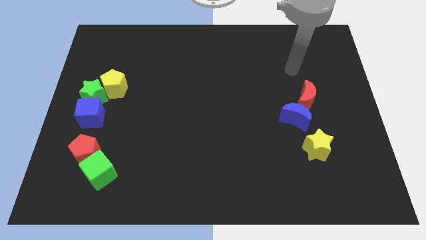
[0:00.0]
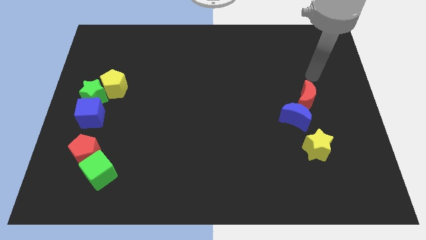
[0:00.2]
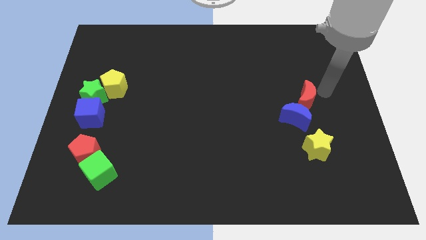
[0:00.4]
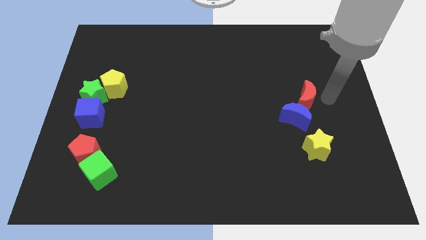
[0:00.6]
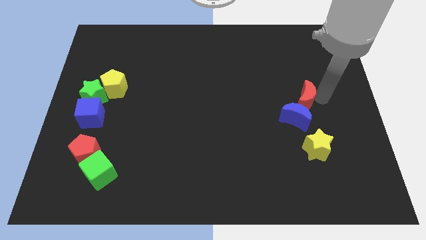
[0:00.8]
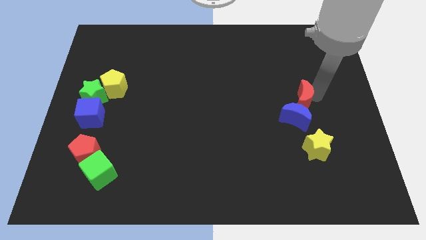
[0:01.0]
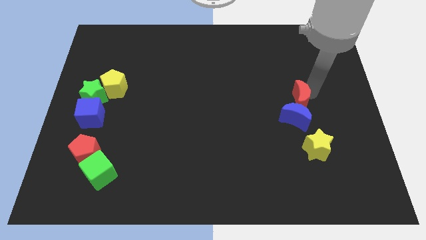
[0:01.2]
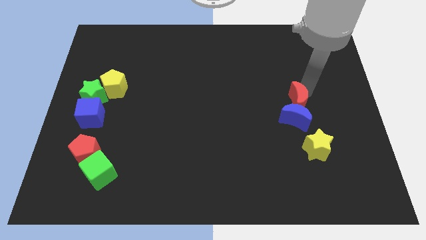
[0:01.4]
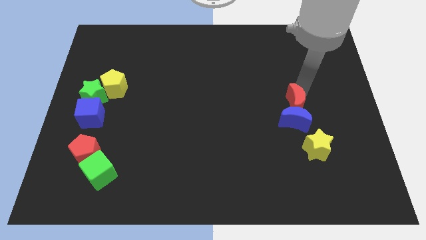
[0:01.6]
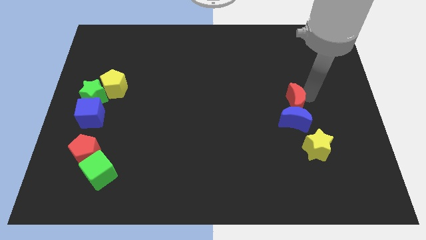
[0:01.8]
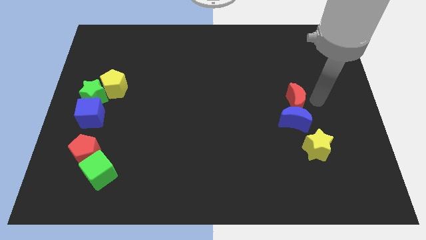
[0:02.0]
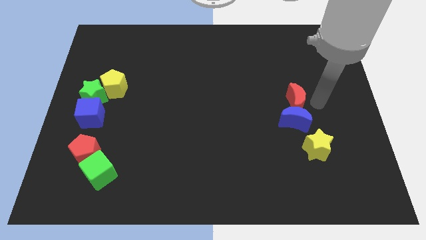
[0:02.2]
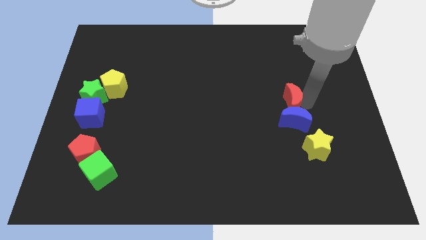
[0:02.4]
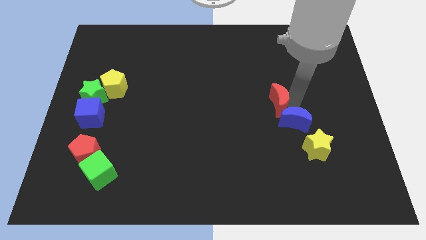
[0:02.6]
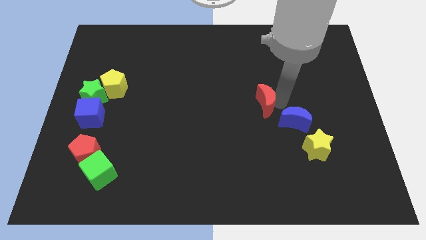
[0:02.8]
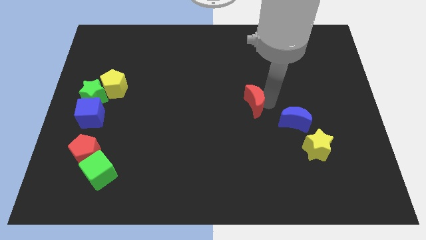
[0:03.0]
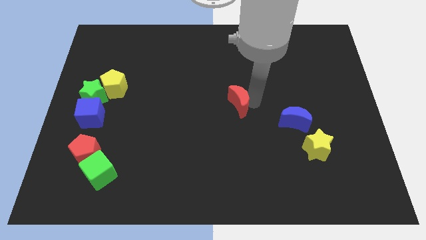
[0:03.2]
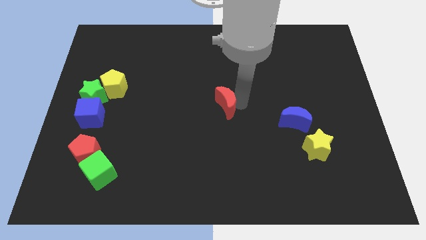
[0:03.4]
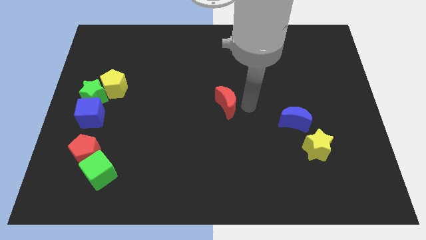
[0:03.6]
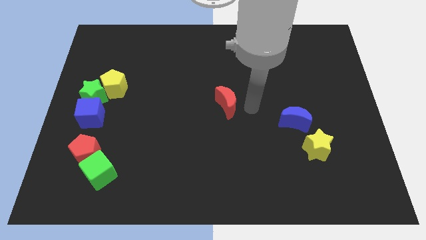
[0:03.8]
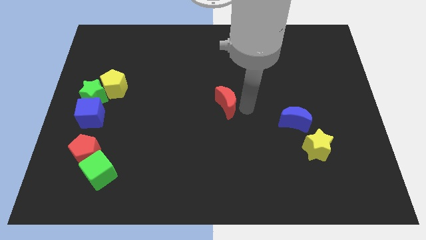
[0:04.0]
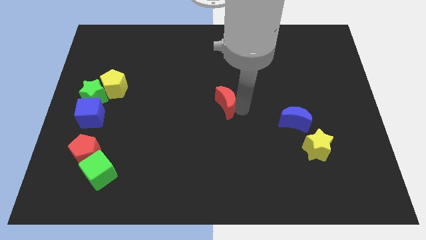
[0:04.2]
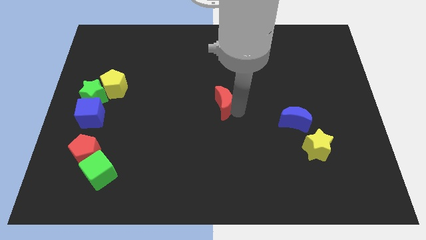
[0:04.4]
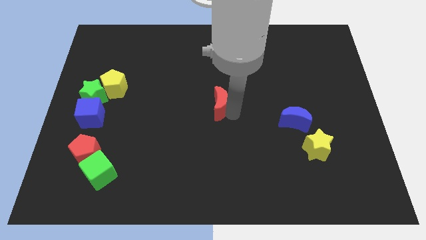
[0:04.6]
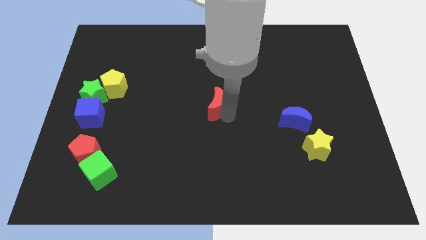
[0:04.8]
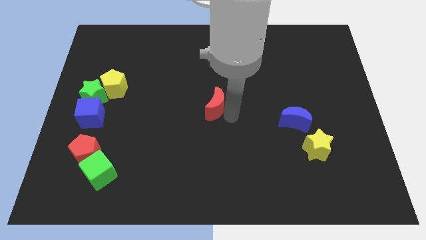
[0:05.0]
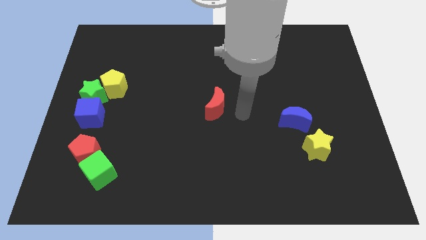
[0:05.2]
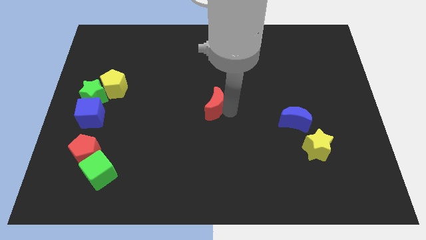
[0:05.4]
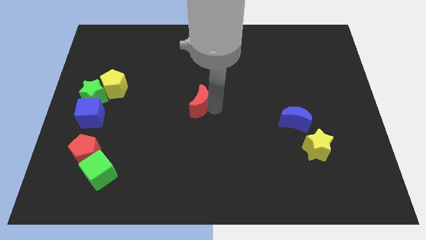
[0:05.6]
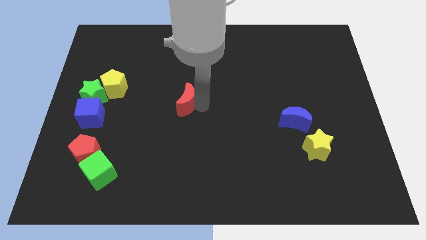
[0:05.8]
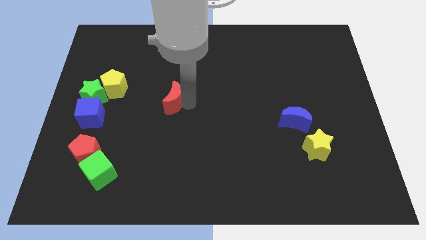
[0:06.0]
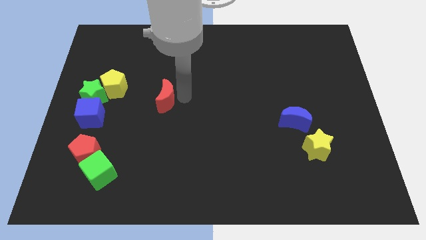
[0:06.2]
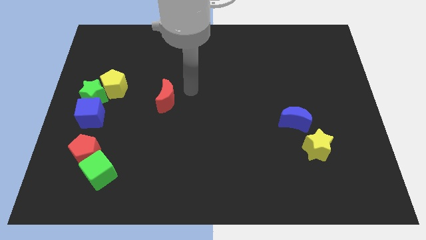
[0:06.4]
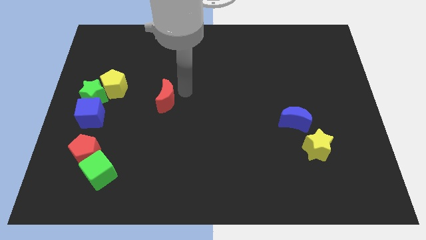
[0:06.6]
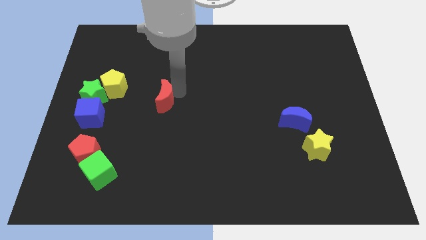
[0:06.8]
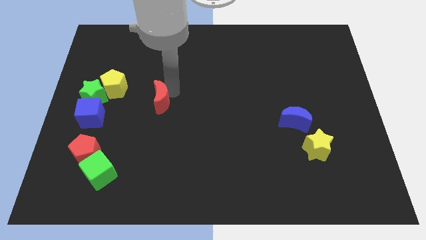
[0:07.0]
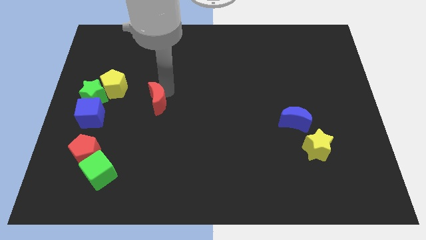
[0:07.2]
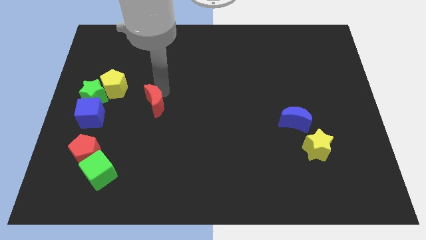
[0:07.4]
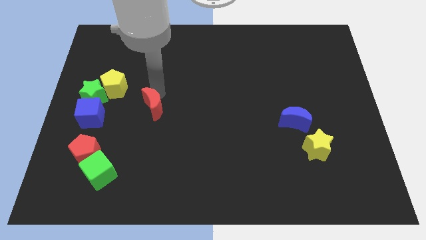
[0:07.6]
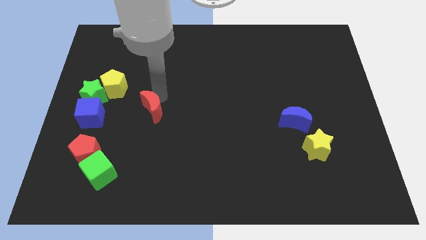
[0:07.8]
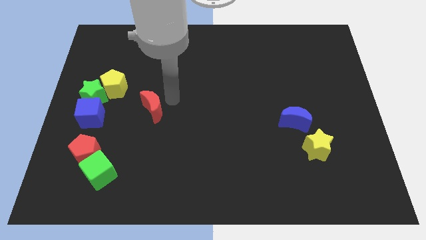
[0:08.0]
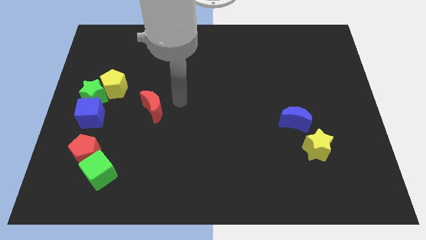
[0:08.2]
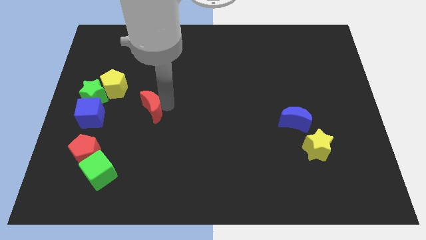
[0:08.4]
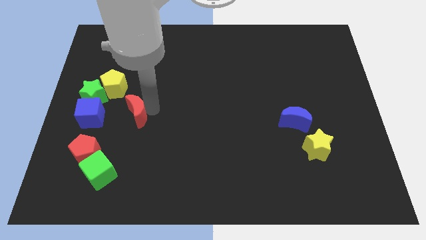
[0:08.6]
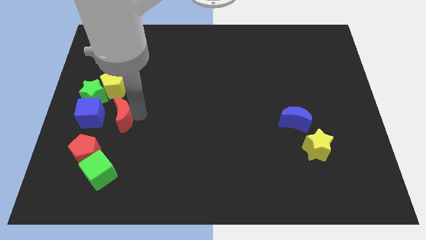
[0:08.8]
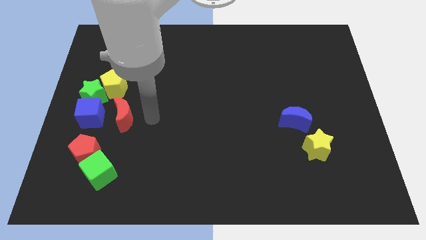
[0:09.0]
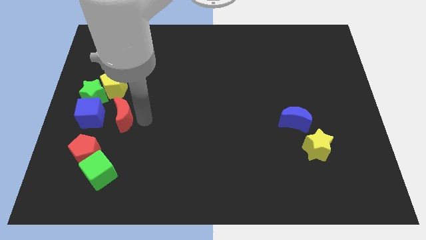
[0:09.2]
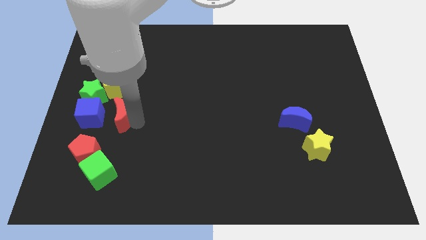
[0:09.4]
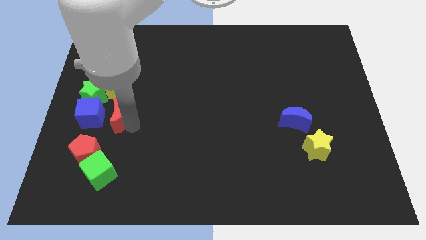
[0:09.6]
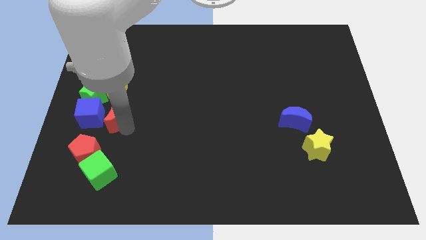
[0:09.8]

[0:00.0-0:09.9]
put the red moon close to the blue cube

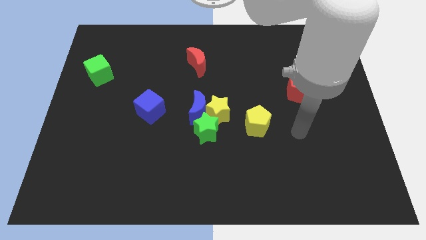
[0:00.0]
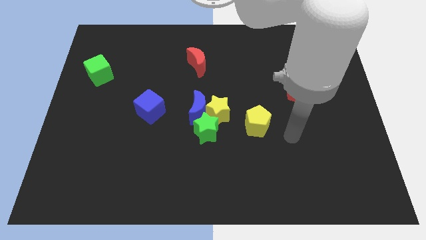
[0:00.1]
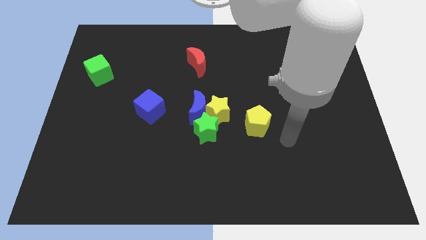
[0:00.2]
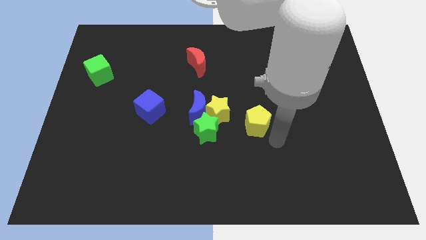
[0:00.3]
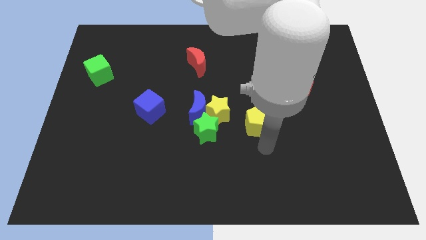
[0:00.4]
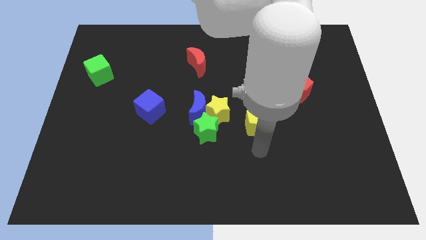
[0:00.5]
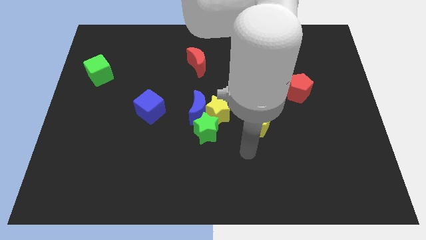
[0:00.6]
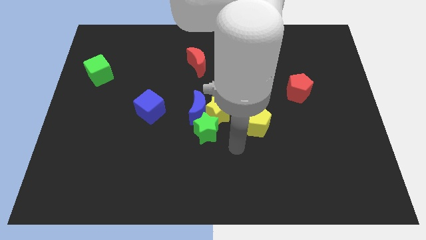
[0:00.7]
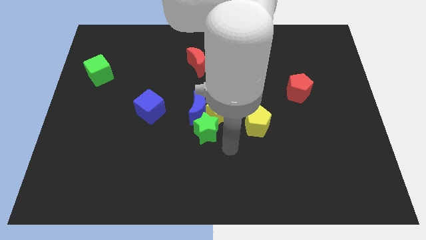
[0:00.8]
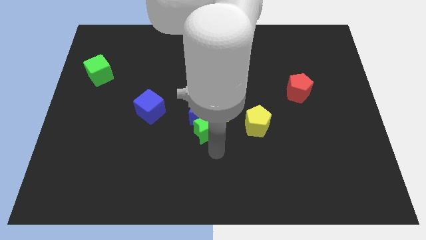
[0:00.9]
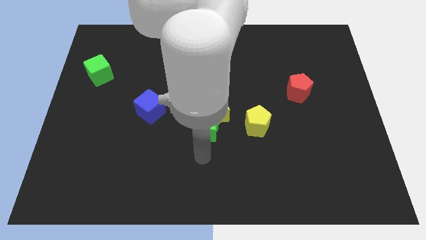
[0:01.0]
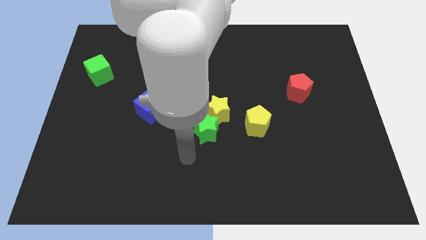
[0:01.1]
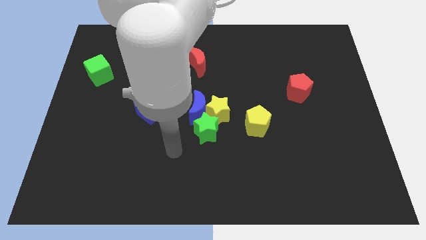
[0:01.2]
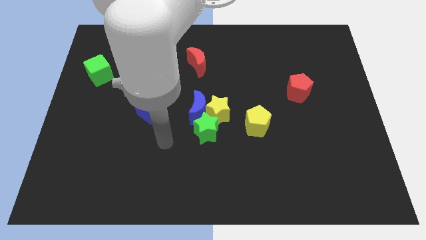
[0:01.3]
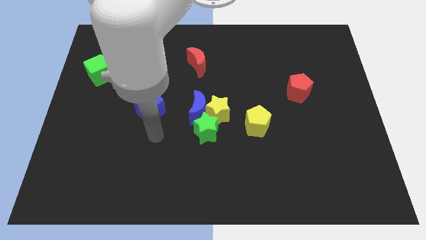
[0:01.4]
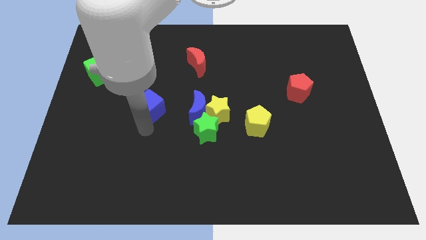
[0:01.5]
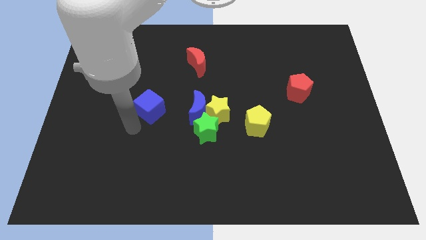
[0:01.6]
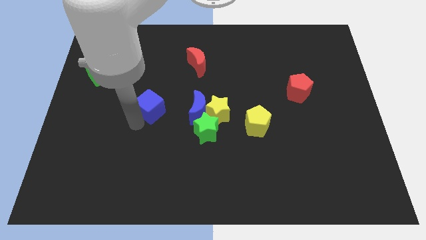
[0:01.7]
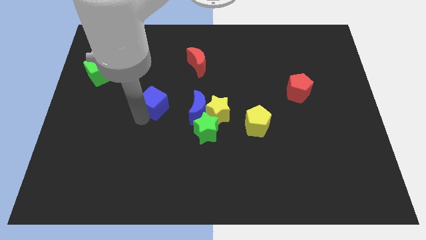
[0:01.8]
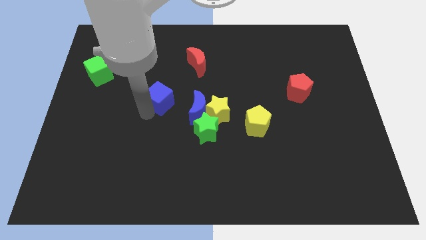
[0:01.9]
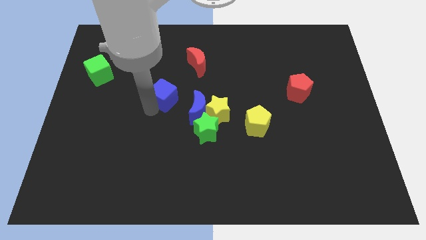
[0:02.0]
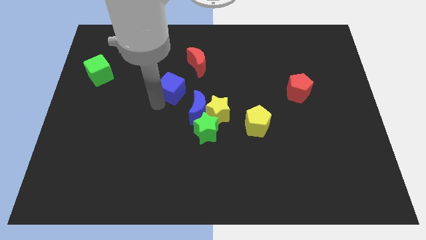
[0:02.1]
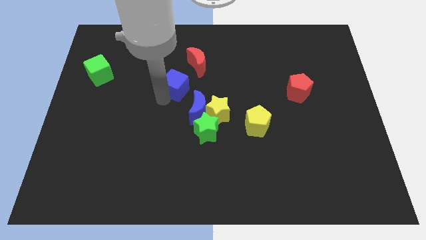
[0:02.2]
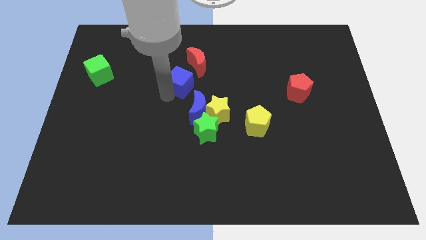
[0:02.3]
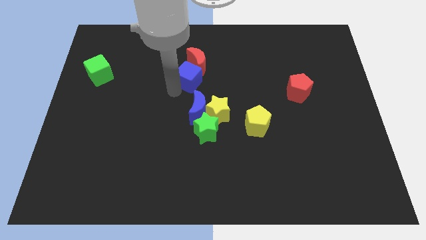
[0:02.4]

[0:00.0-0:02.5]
slide the blue cube towards the red moon
